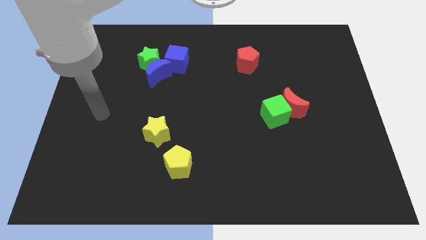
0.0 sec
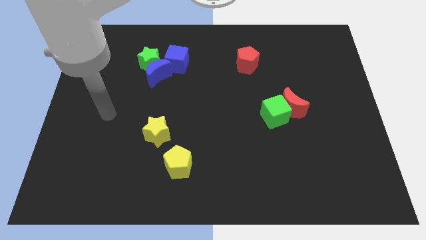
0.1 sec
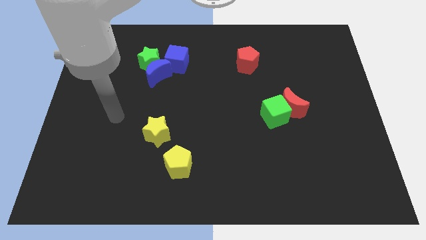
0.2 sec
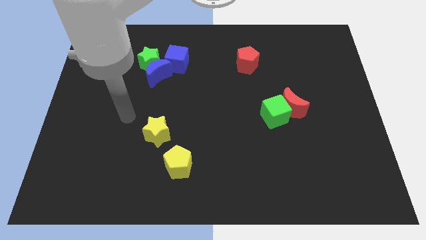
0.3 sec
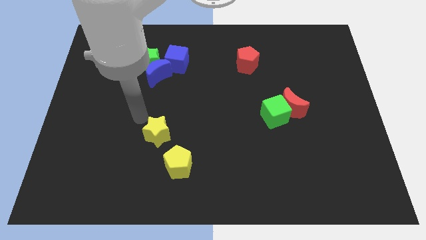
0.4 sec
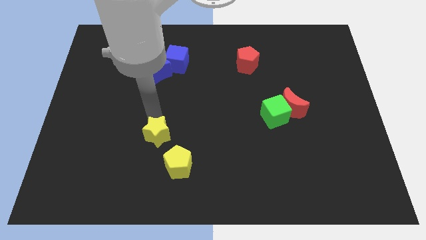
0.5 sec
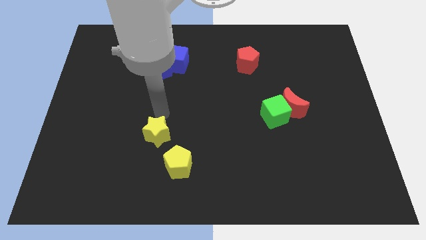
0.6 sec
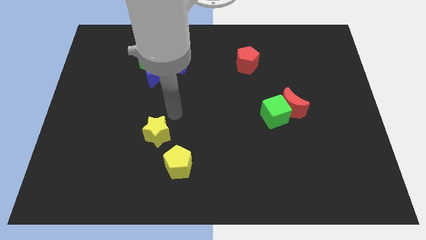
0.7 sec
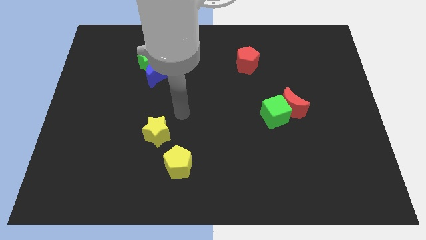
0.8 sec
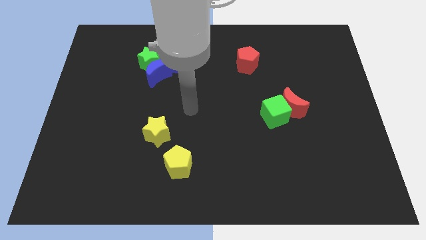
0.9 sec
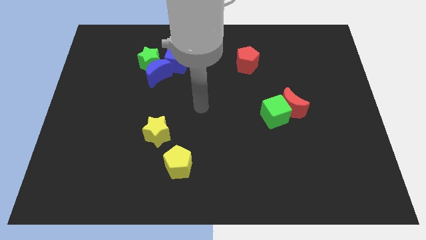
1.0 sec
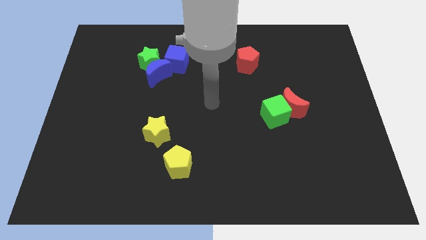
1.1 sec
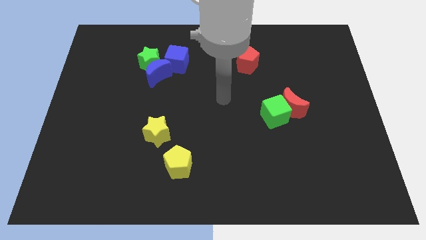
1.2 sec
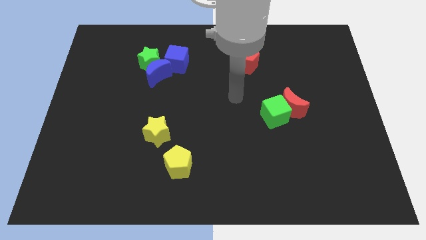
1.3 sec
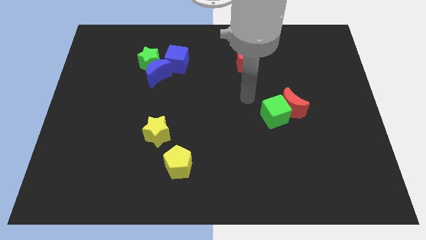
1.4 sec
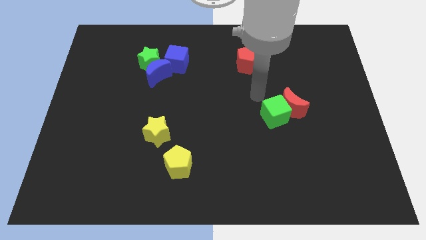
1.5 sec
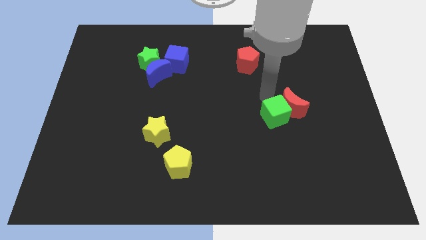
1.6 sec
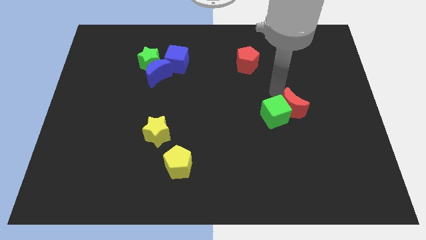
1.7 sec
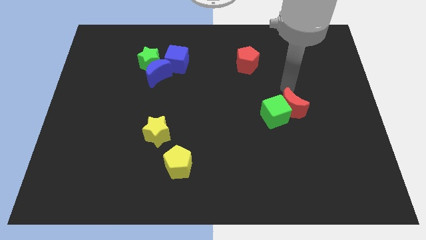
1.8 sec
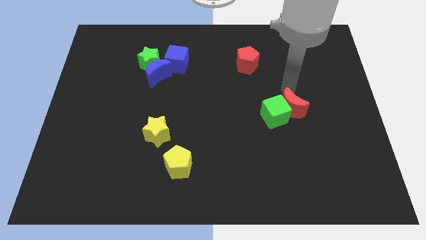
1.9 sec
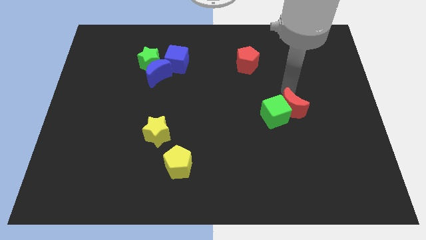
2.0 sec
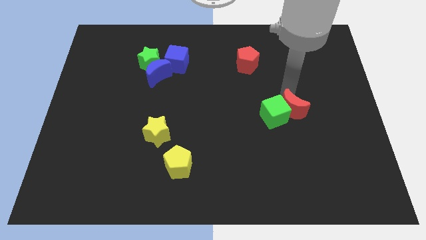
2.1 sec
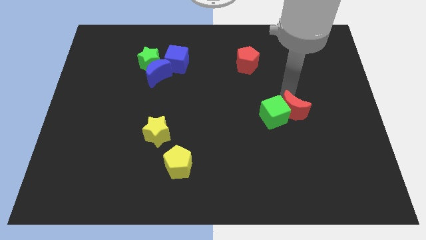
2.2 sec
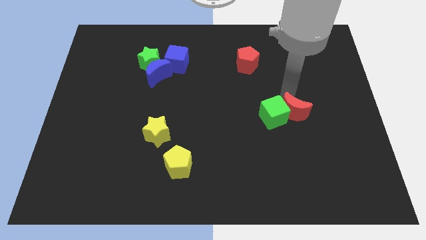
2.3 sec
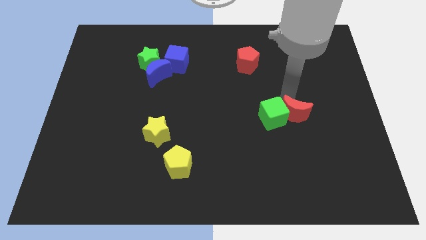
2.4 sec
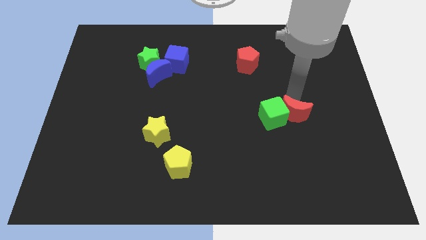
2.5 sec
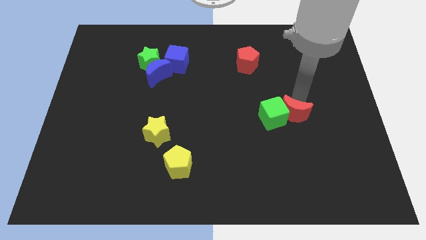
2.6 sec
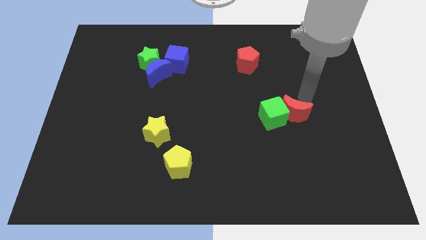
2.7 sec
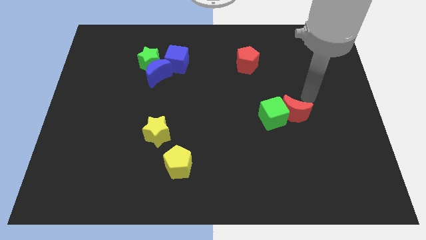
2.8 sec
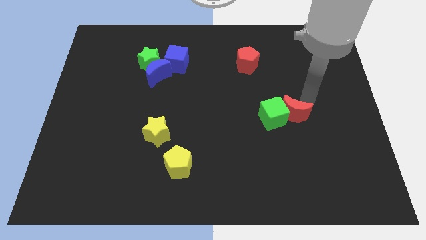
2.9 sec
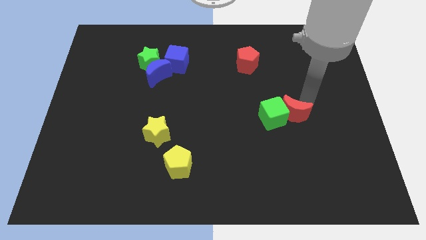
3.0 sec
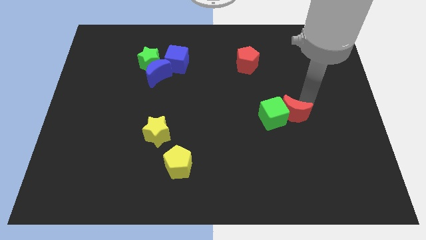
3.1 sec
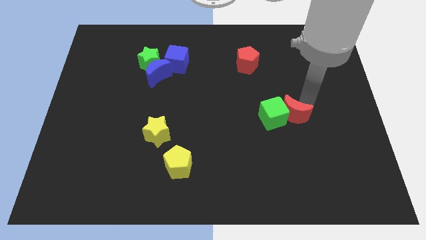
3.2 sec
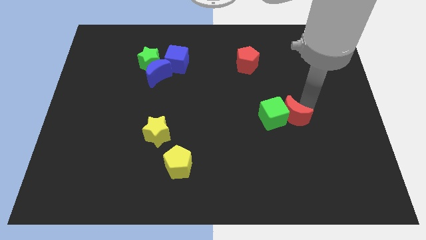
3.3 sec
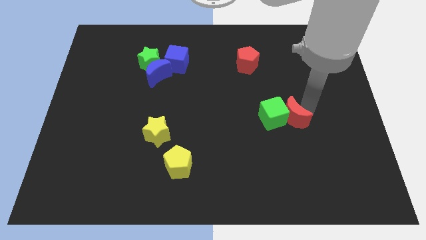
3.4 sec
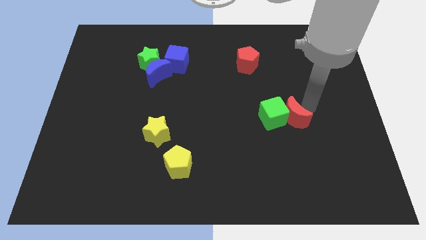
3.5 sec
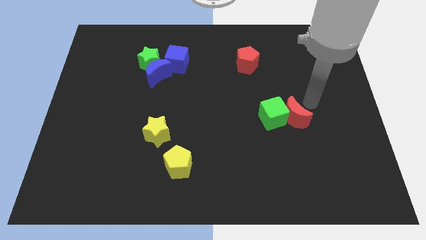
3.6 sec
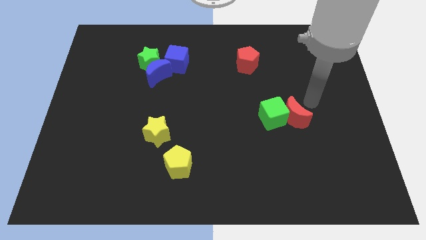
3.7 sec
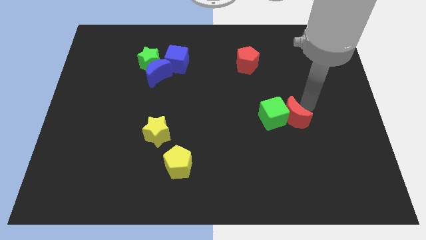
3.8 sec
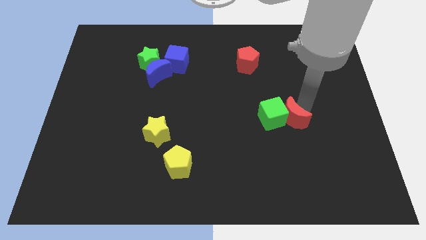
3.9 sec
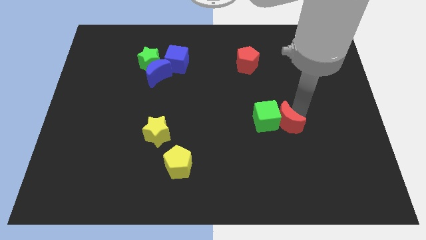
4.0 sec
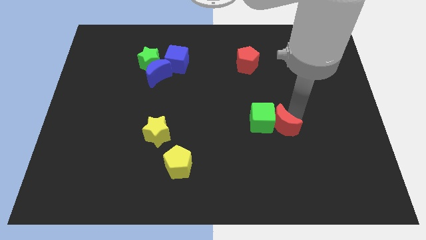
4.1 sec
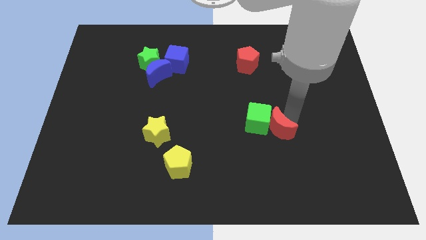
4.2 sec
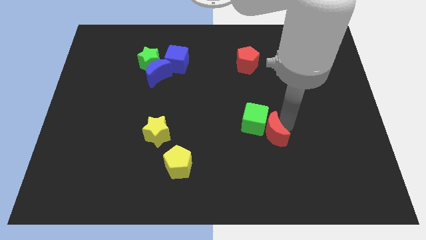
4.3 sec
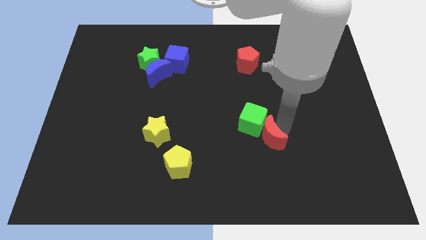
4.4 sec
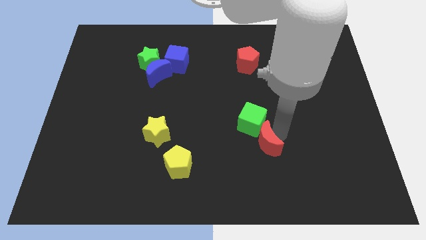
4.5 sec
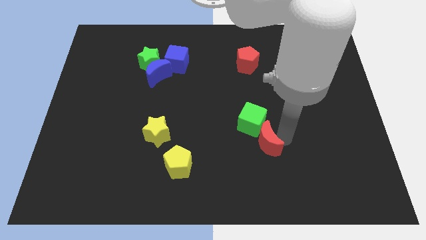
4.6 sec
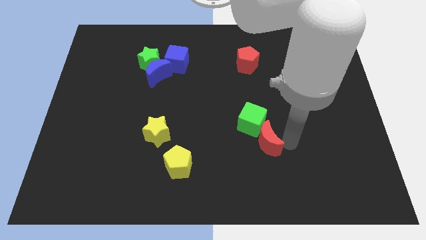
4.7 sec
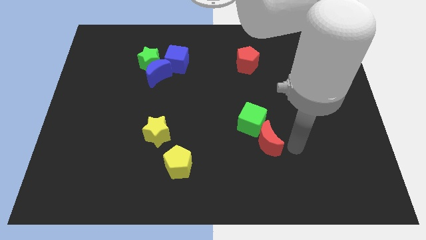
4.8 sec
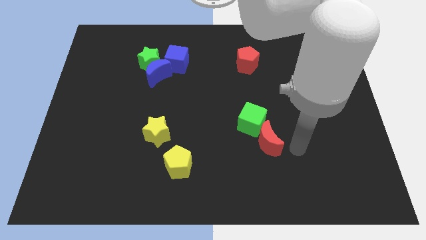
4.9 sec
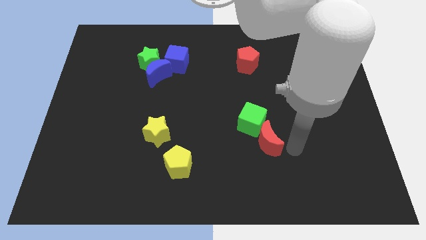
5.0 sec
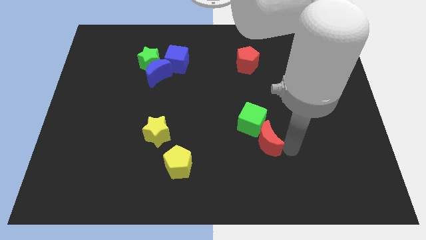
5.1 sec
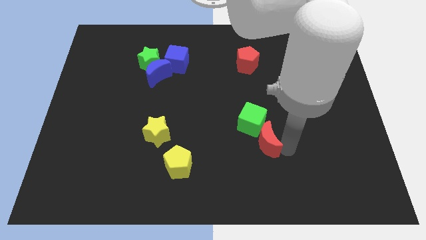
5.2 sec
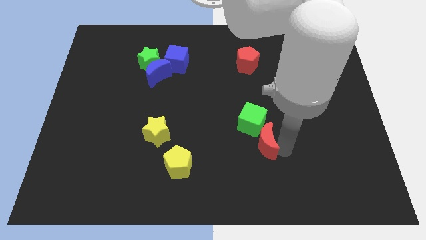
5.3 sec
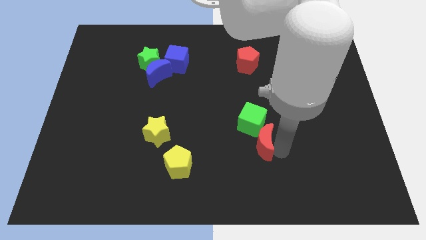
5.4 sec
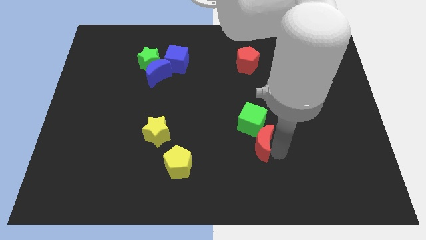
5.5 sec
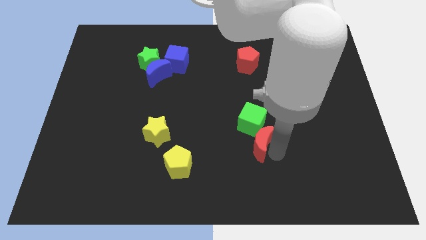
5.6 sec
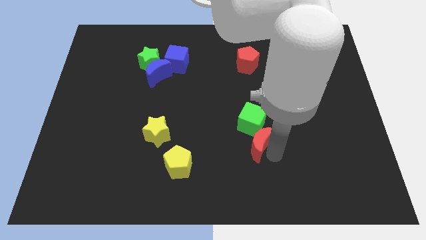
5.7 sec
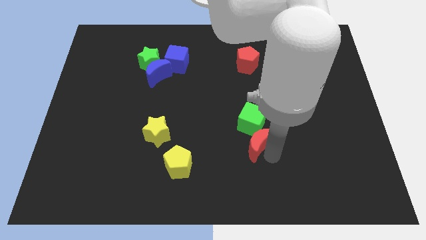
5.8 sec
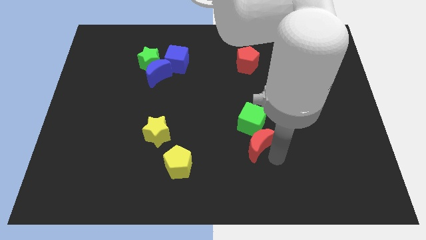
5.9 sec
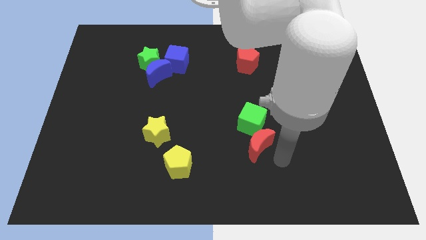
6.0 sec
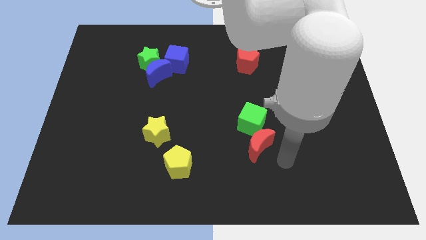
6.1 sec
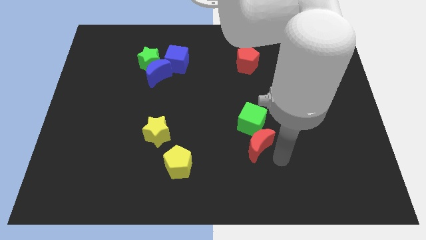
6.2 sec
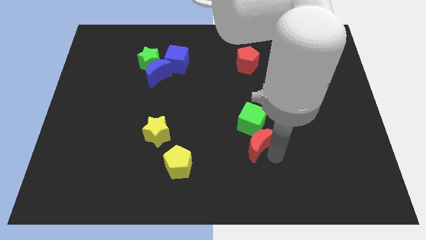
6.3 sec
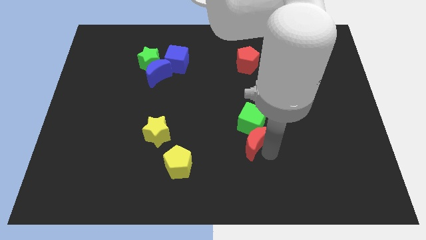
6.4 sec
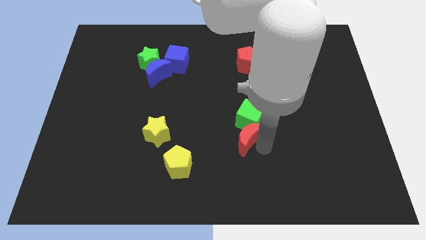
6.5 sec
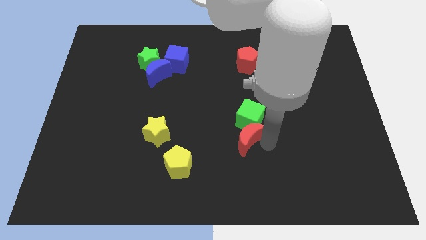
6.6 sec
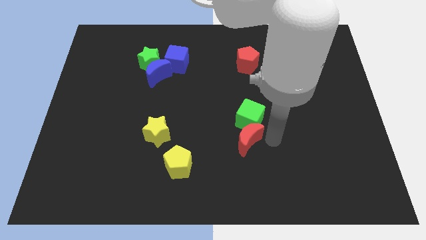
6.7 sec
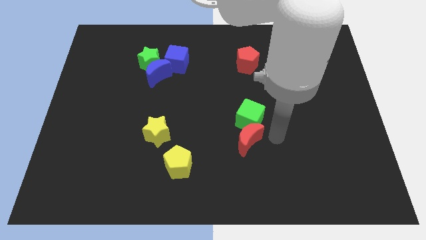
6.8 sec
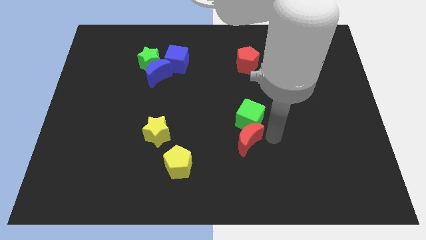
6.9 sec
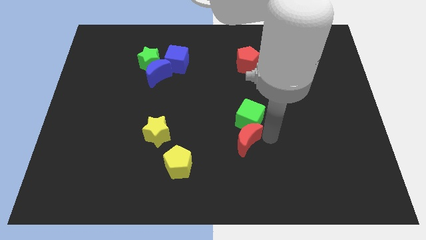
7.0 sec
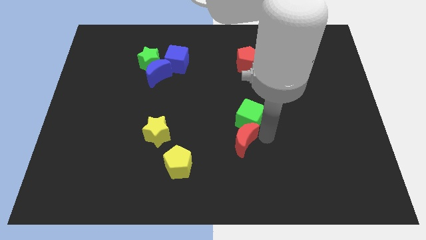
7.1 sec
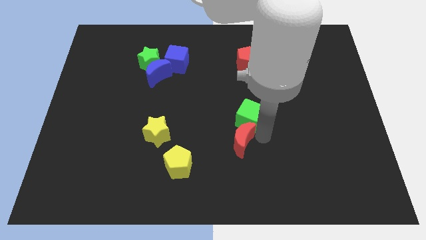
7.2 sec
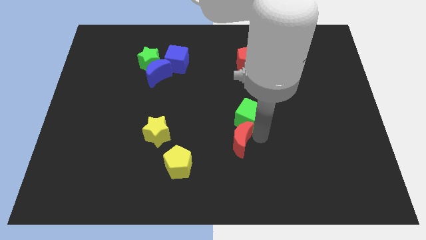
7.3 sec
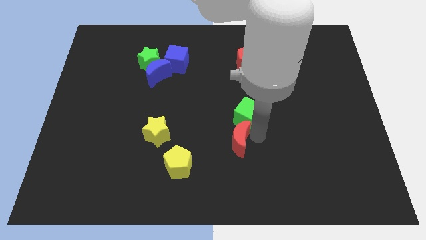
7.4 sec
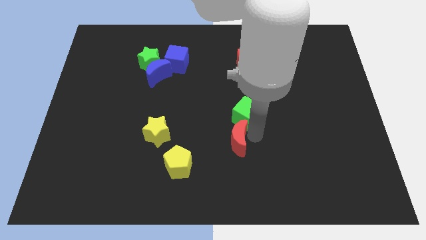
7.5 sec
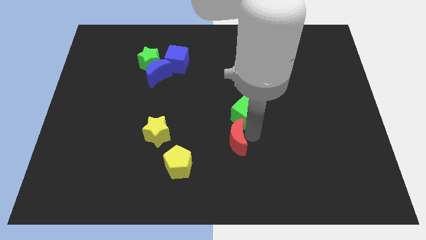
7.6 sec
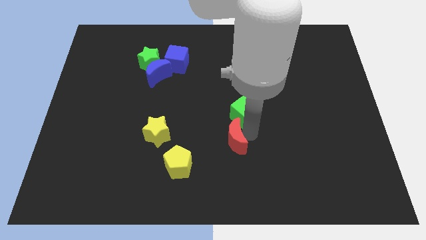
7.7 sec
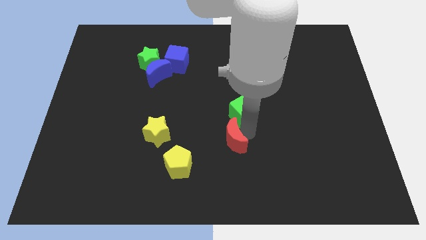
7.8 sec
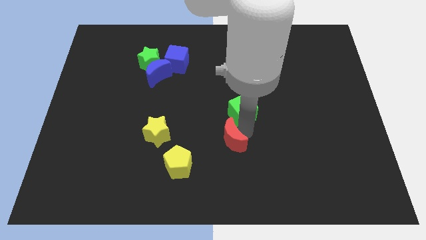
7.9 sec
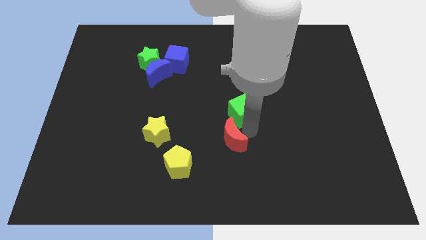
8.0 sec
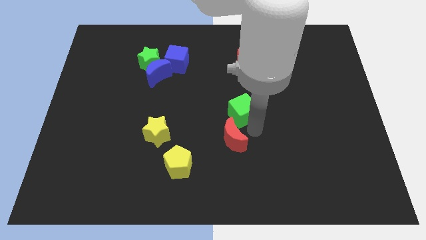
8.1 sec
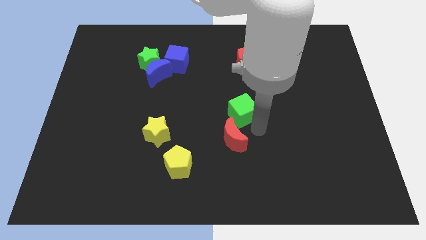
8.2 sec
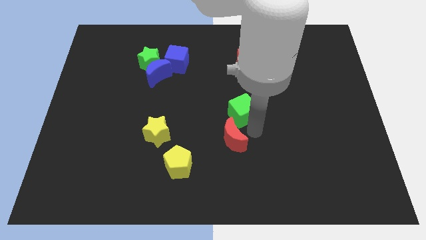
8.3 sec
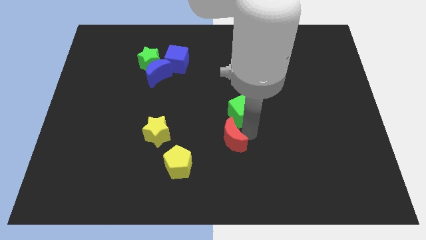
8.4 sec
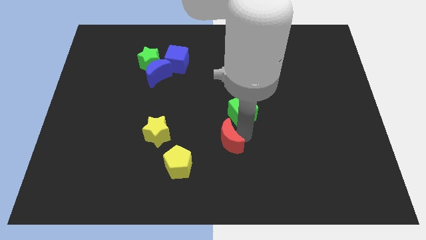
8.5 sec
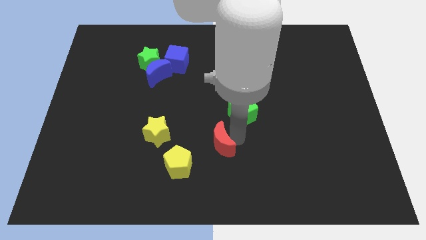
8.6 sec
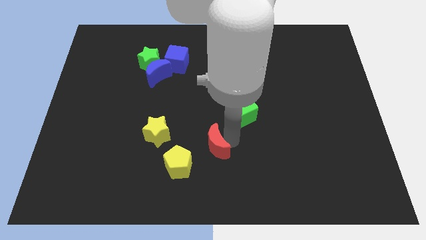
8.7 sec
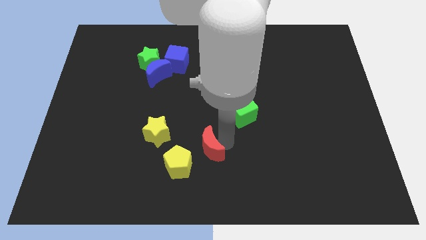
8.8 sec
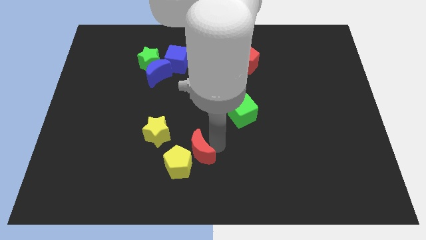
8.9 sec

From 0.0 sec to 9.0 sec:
put the red moon to the yellow pentagon
